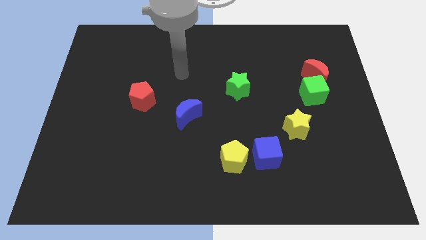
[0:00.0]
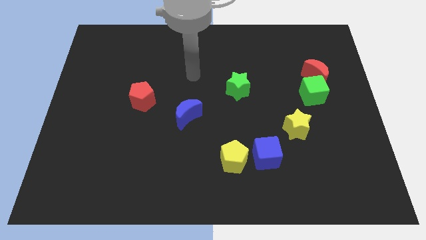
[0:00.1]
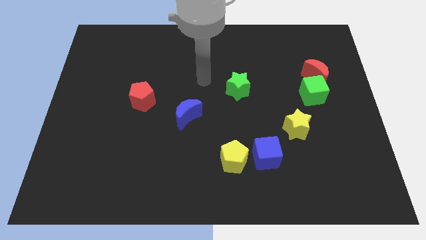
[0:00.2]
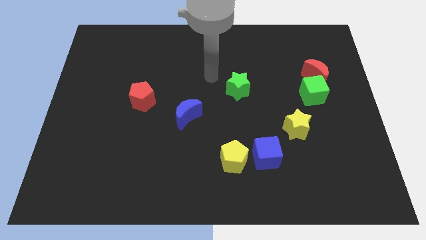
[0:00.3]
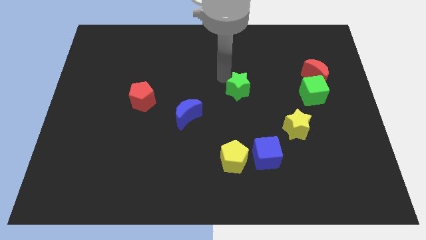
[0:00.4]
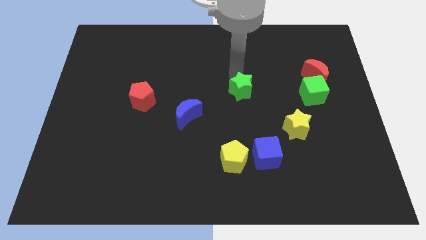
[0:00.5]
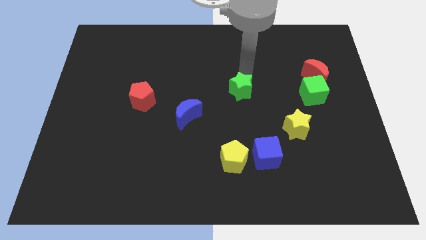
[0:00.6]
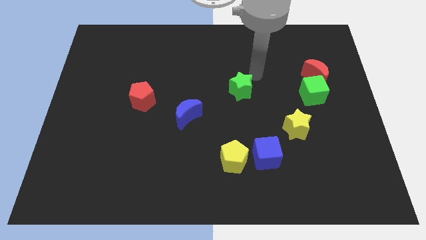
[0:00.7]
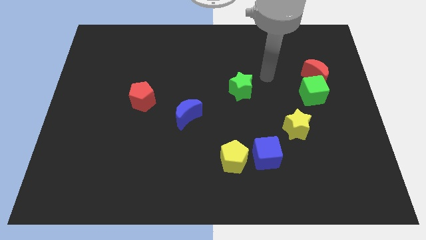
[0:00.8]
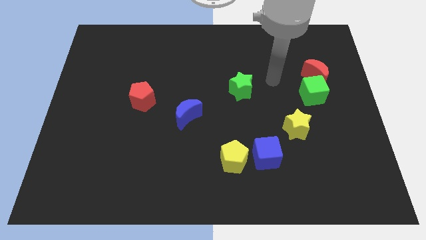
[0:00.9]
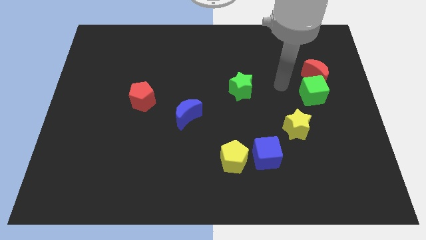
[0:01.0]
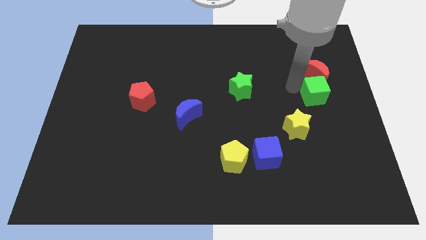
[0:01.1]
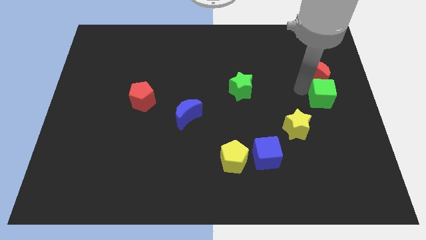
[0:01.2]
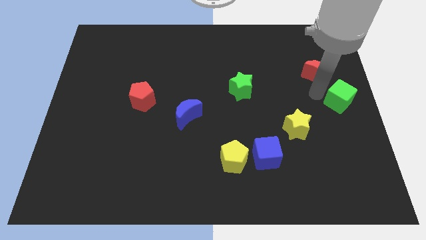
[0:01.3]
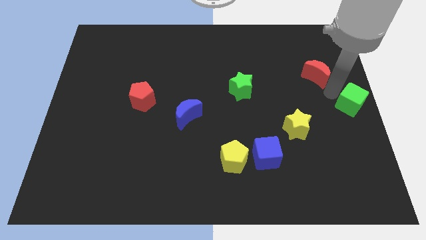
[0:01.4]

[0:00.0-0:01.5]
pull the red moon apart from the green cube

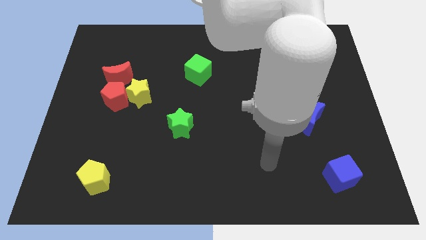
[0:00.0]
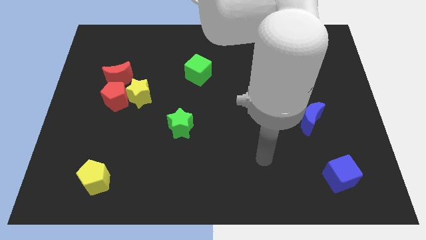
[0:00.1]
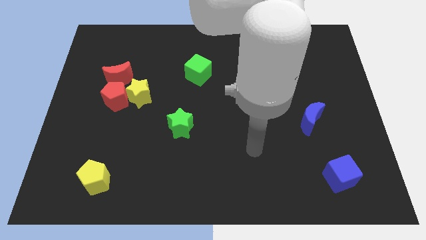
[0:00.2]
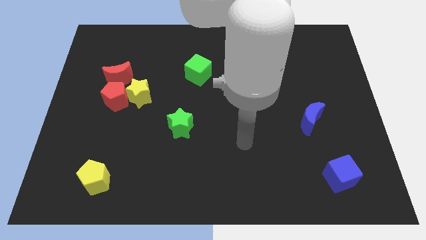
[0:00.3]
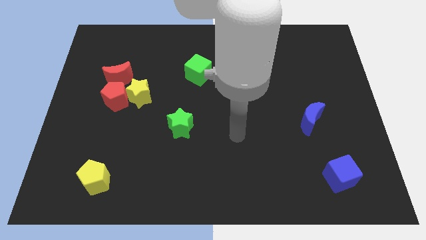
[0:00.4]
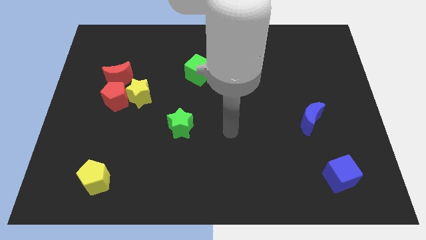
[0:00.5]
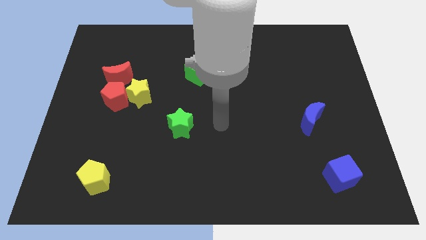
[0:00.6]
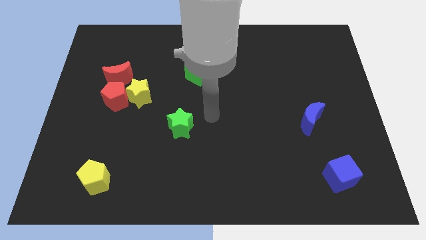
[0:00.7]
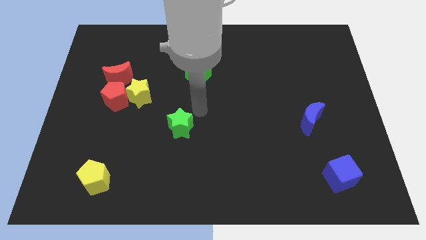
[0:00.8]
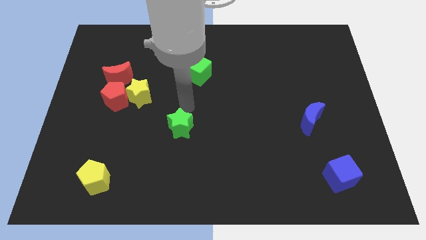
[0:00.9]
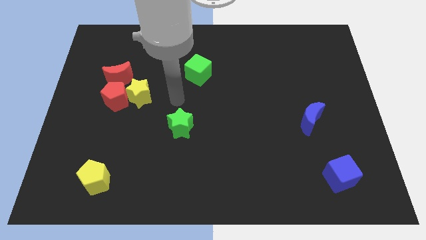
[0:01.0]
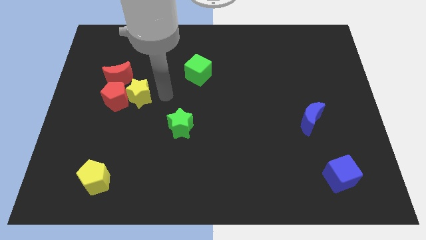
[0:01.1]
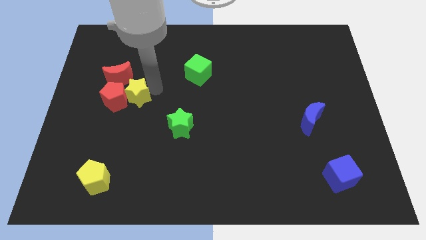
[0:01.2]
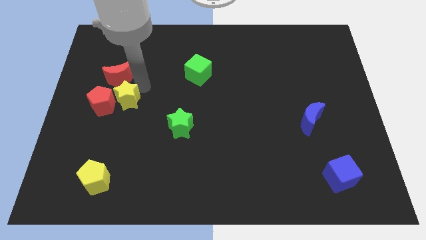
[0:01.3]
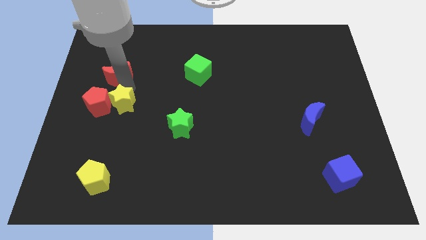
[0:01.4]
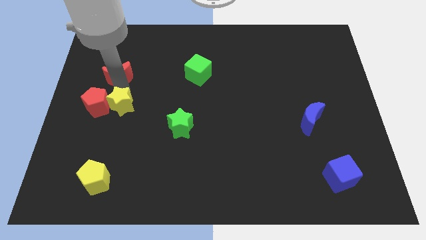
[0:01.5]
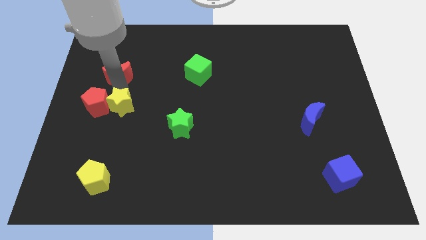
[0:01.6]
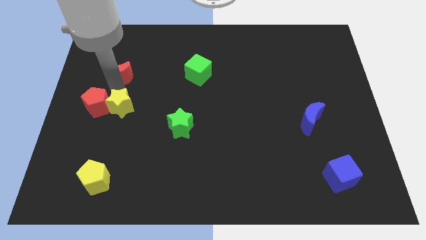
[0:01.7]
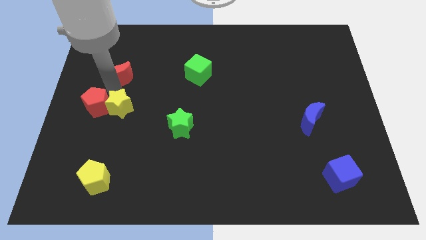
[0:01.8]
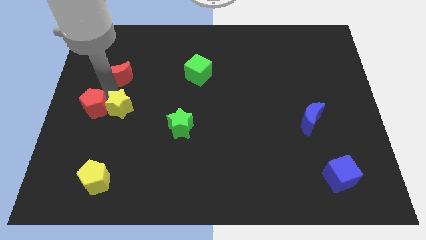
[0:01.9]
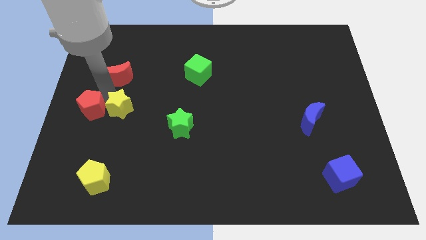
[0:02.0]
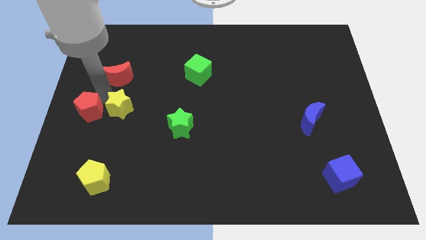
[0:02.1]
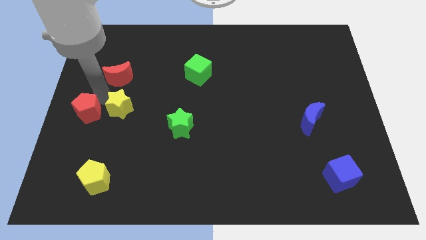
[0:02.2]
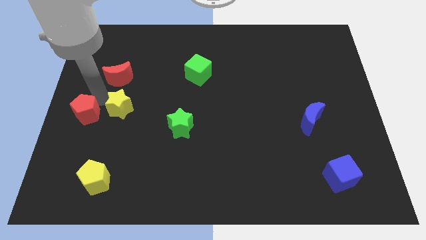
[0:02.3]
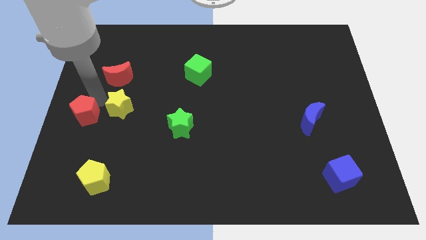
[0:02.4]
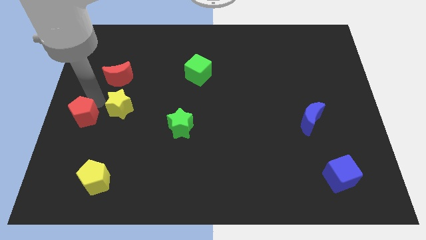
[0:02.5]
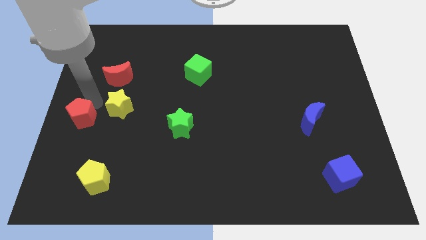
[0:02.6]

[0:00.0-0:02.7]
pull the red pentagon apart from the yellow star and red moon

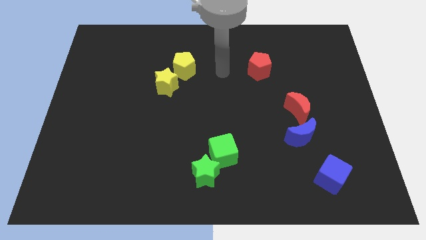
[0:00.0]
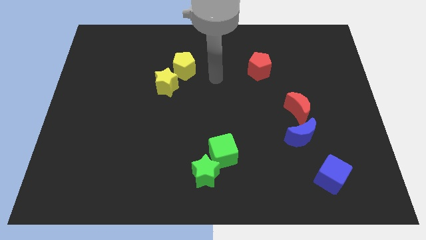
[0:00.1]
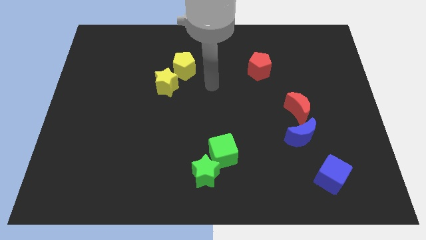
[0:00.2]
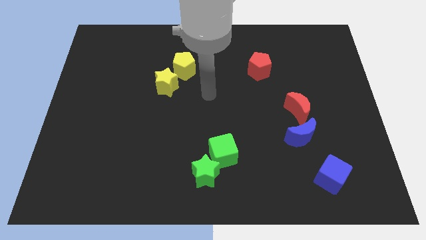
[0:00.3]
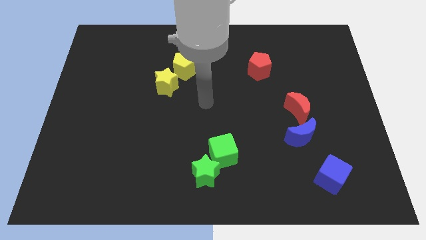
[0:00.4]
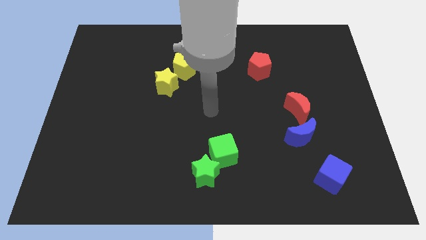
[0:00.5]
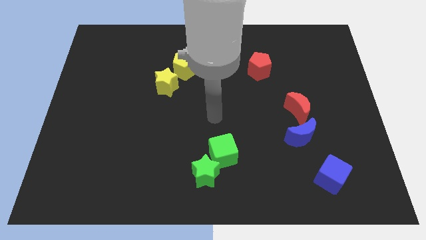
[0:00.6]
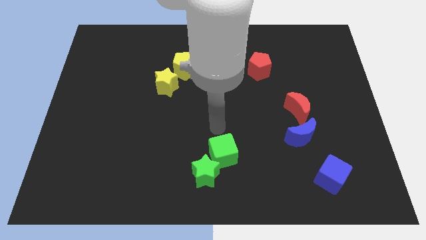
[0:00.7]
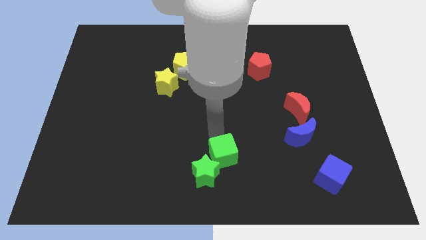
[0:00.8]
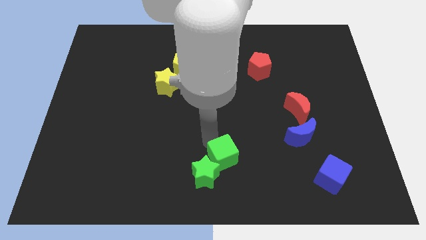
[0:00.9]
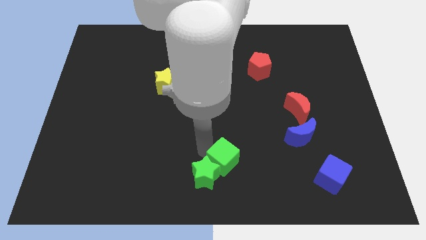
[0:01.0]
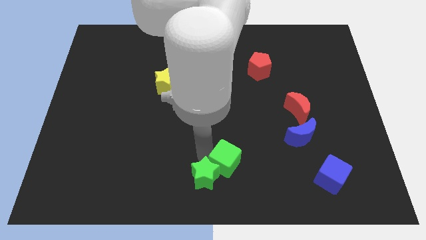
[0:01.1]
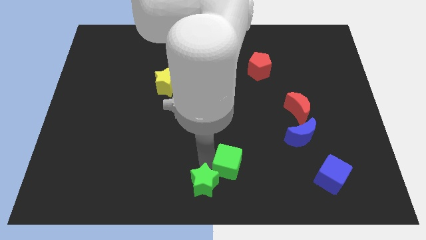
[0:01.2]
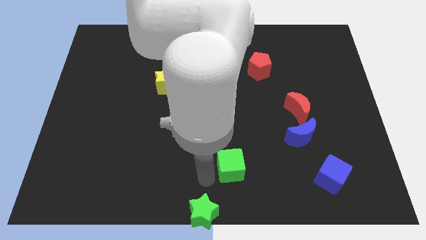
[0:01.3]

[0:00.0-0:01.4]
move the green cube away from the green star

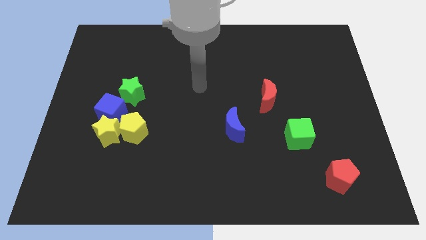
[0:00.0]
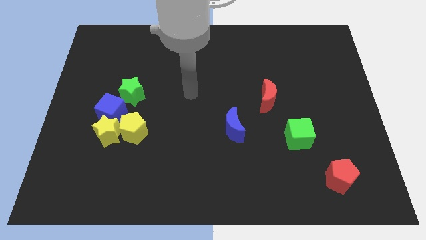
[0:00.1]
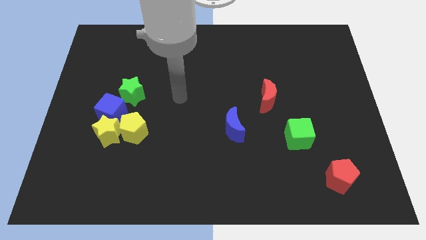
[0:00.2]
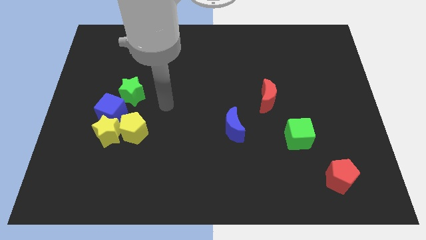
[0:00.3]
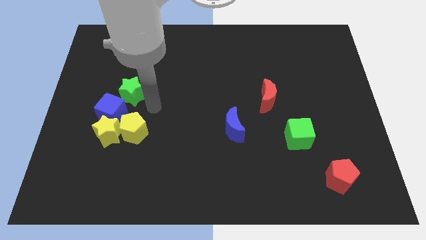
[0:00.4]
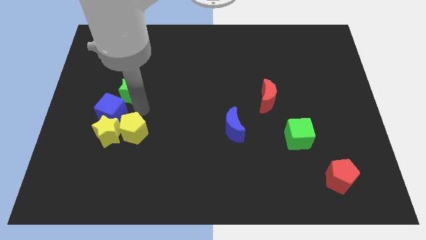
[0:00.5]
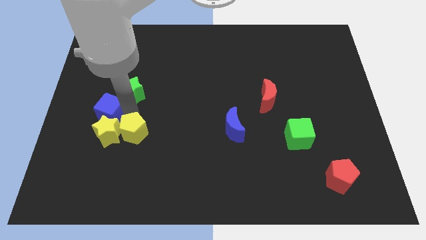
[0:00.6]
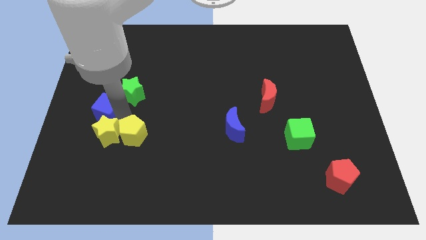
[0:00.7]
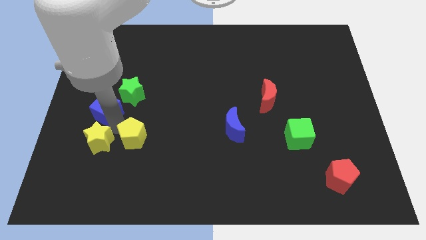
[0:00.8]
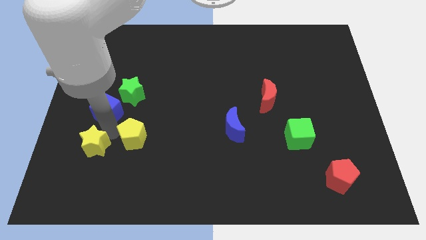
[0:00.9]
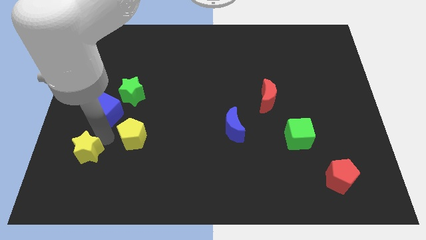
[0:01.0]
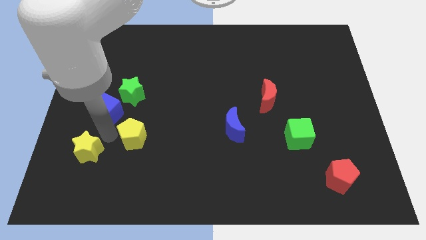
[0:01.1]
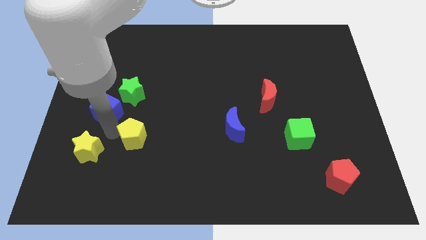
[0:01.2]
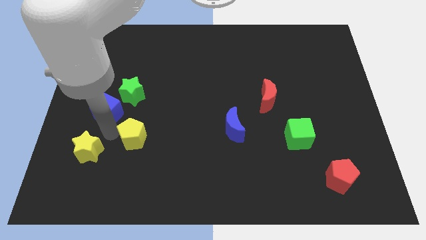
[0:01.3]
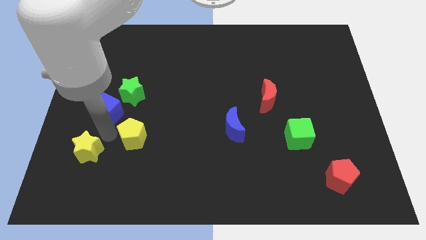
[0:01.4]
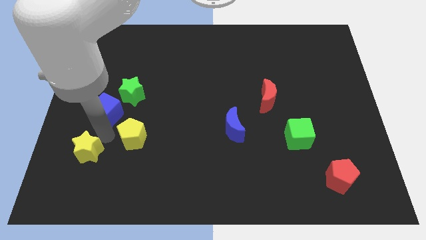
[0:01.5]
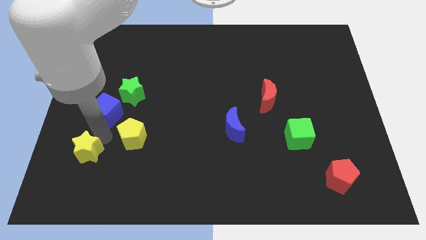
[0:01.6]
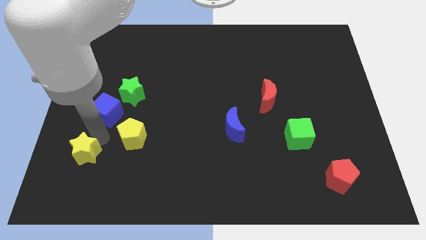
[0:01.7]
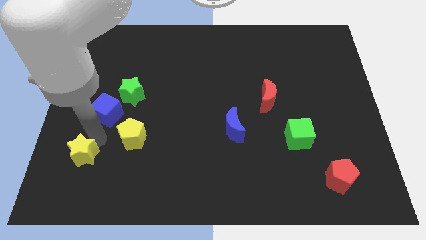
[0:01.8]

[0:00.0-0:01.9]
move the yellow star away from the yellow pentagon and blue cube

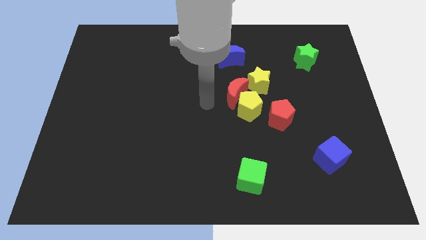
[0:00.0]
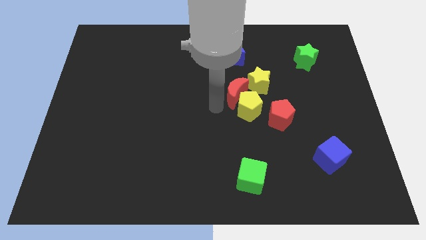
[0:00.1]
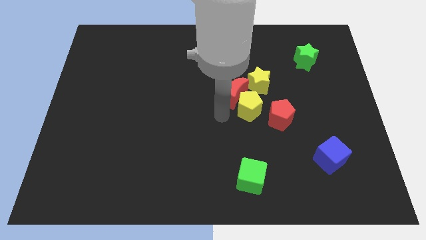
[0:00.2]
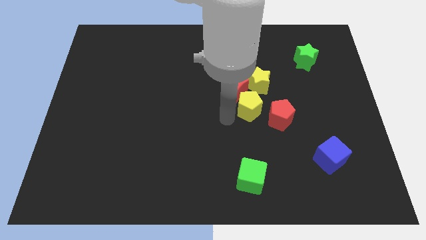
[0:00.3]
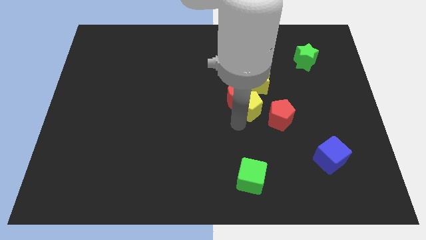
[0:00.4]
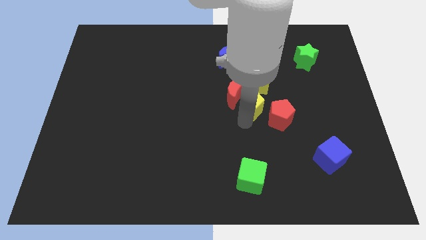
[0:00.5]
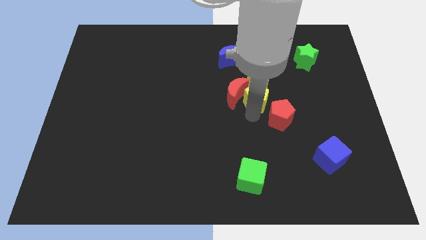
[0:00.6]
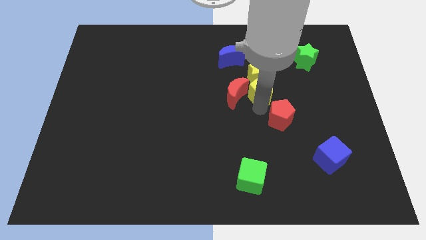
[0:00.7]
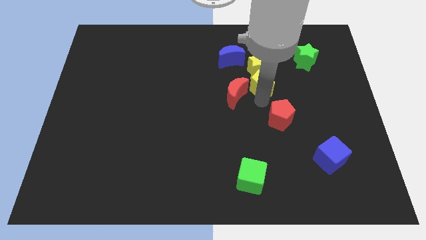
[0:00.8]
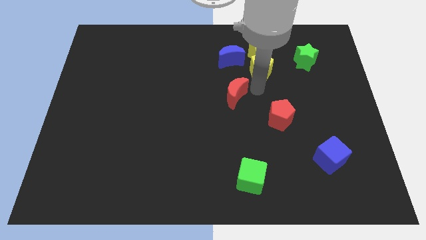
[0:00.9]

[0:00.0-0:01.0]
separate the red moon from the yellow pentagon and yellow star

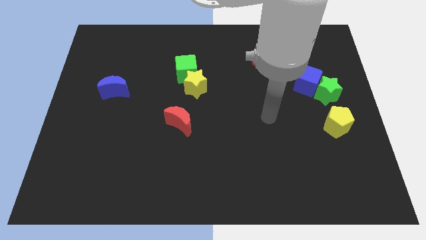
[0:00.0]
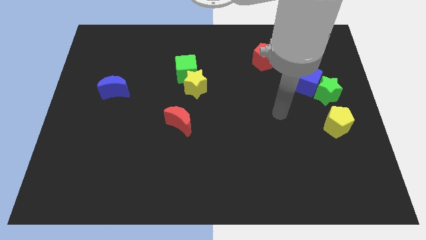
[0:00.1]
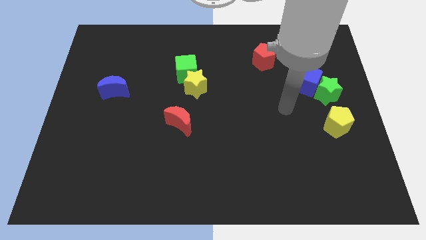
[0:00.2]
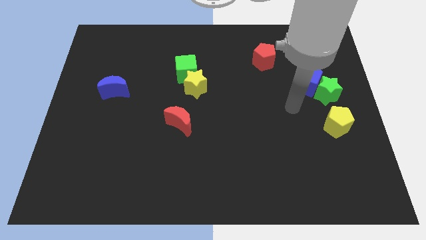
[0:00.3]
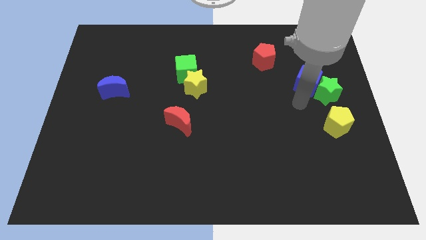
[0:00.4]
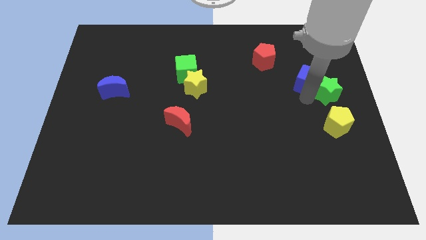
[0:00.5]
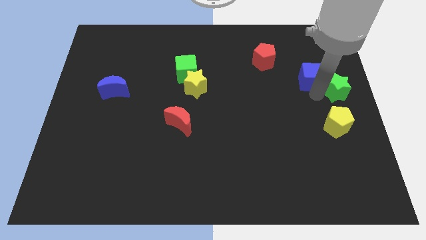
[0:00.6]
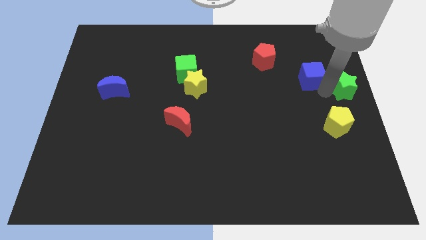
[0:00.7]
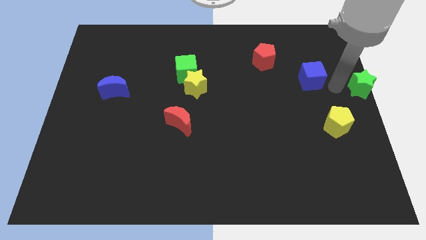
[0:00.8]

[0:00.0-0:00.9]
separate the blue cube from the green star
